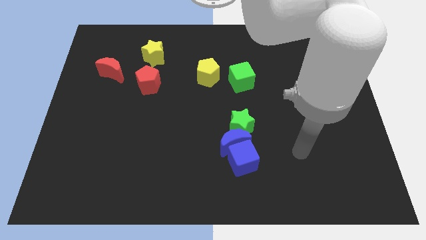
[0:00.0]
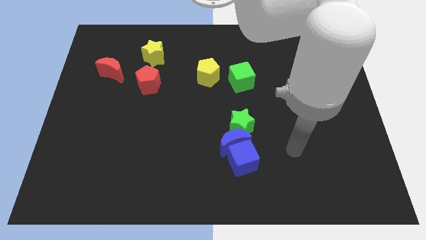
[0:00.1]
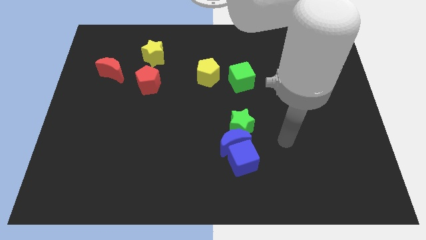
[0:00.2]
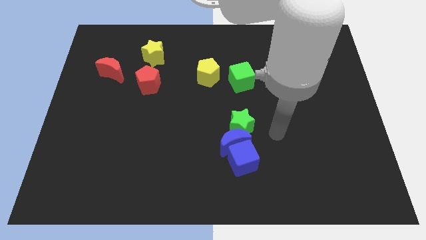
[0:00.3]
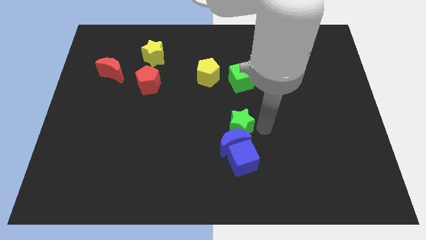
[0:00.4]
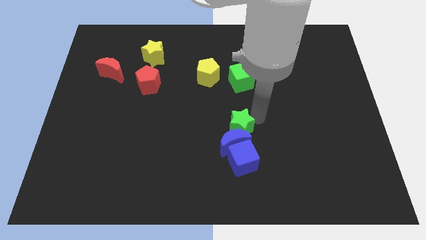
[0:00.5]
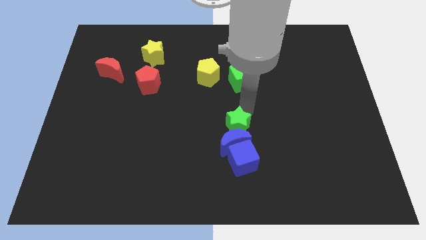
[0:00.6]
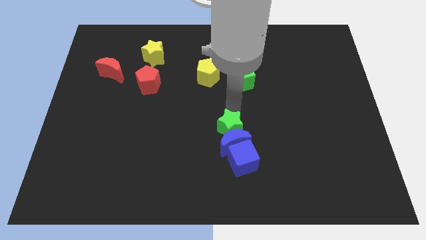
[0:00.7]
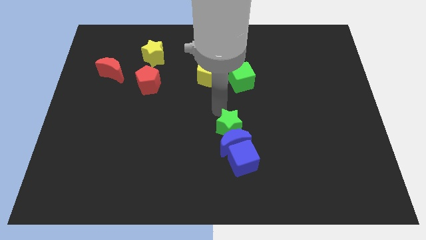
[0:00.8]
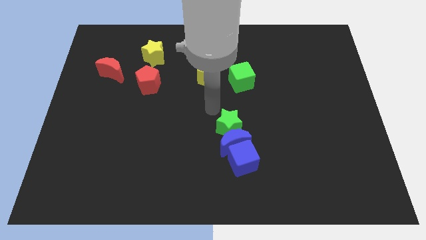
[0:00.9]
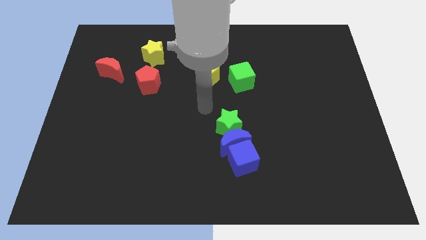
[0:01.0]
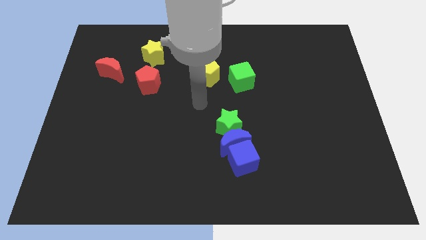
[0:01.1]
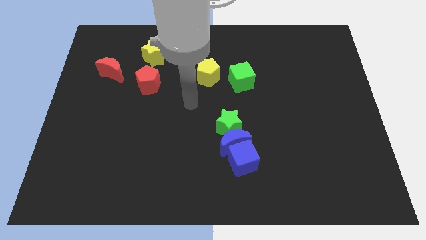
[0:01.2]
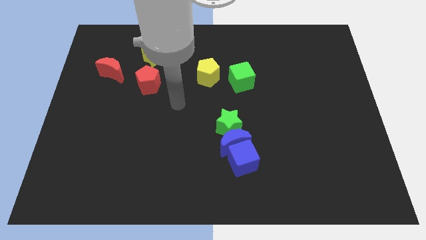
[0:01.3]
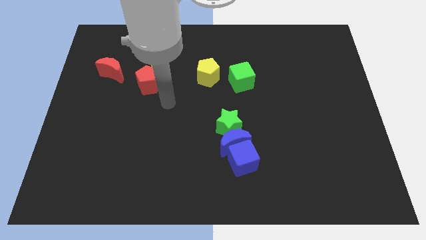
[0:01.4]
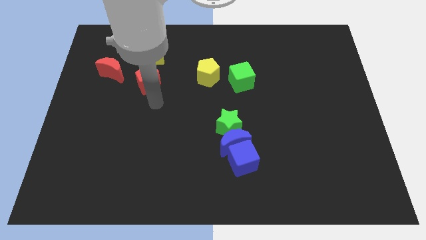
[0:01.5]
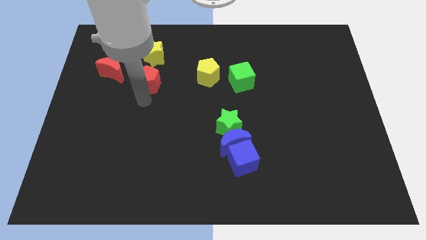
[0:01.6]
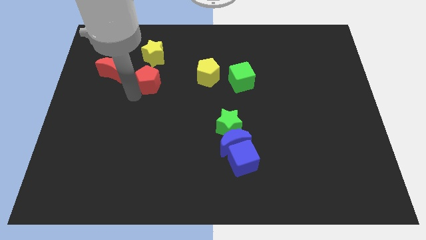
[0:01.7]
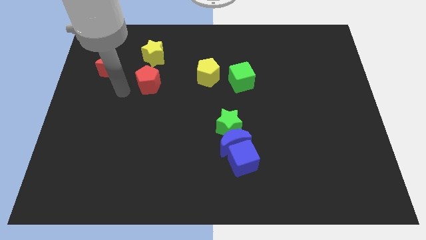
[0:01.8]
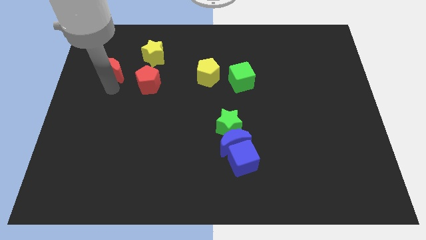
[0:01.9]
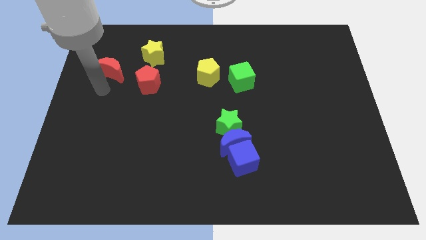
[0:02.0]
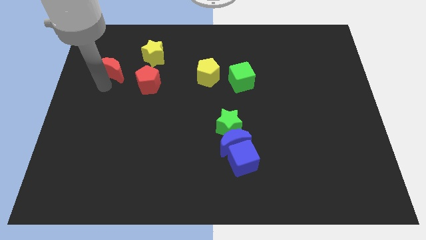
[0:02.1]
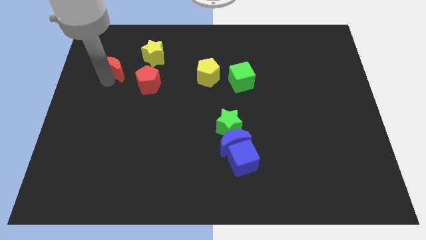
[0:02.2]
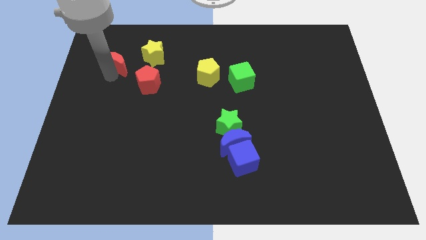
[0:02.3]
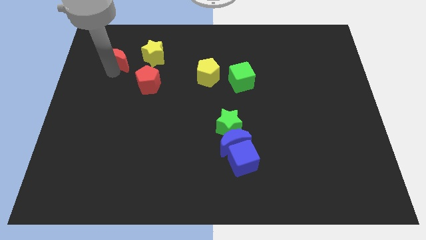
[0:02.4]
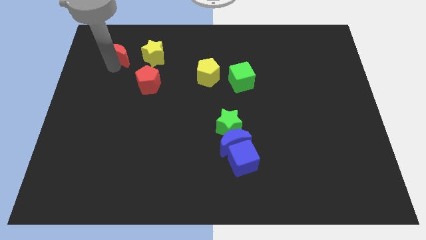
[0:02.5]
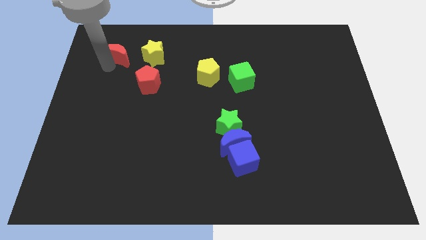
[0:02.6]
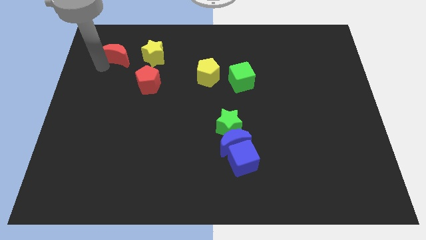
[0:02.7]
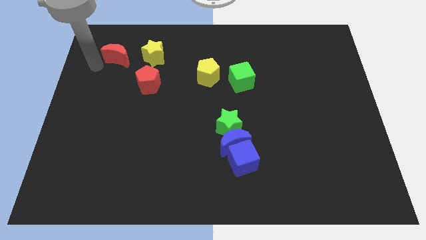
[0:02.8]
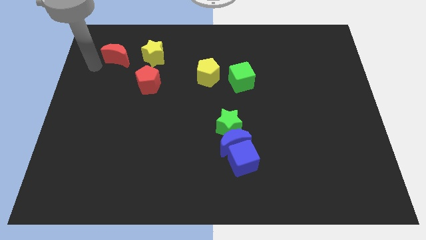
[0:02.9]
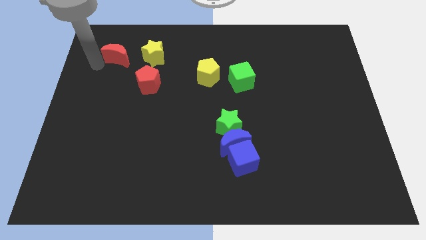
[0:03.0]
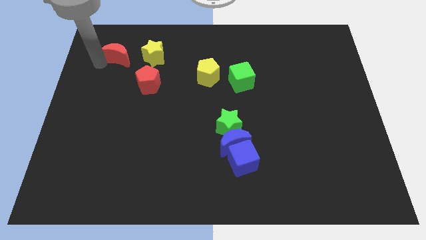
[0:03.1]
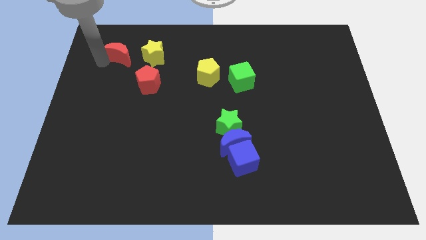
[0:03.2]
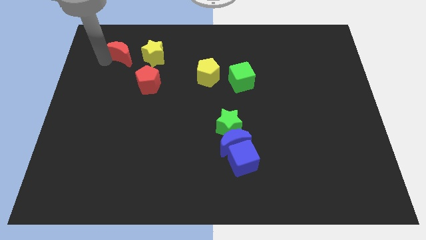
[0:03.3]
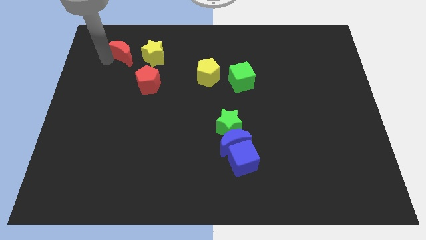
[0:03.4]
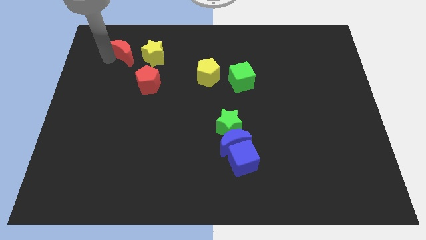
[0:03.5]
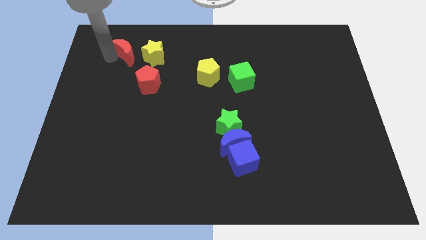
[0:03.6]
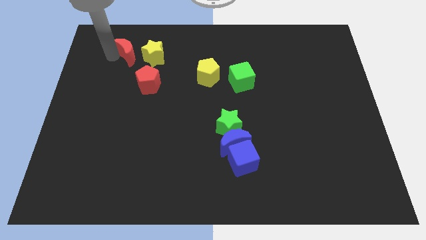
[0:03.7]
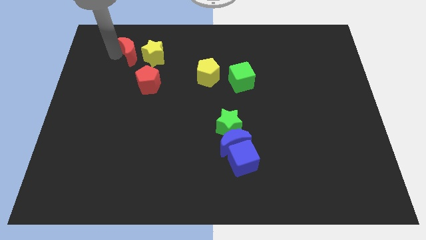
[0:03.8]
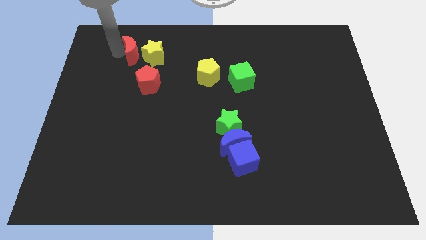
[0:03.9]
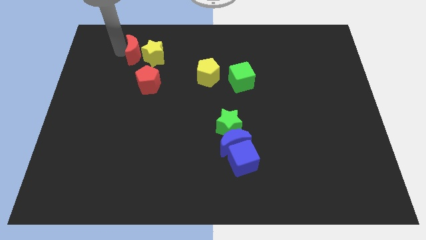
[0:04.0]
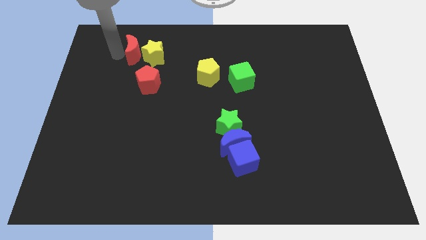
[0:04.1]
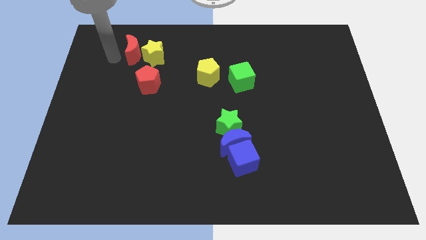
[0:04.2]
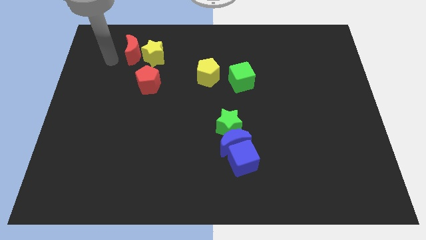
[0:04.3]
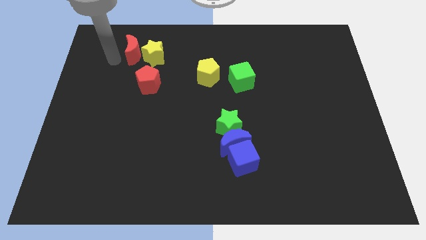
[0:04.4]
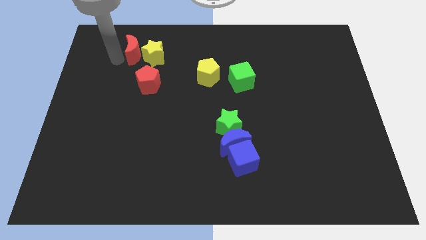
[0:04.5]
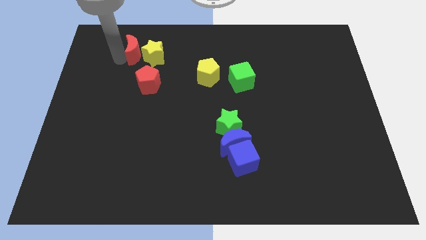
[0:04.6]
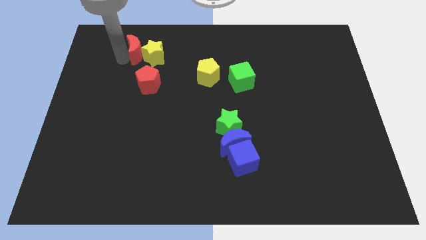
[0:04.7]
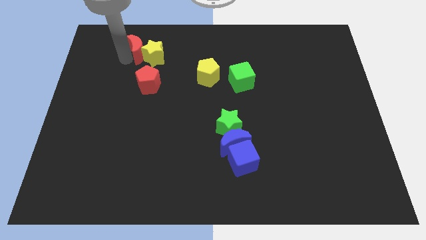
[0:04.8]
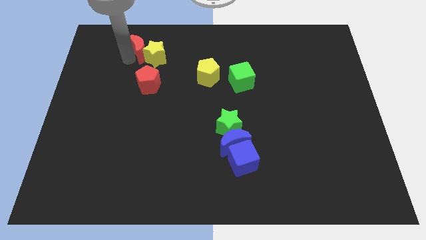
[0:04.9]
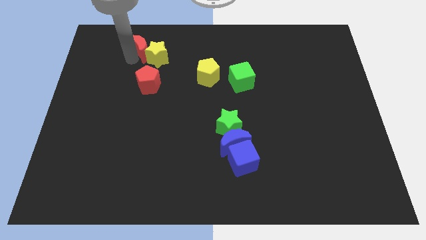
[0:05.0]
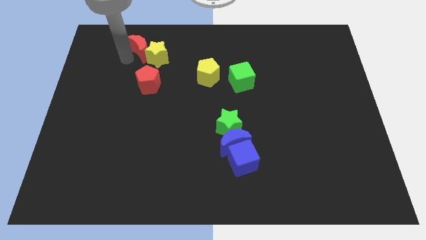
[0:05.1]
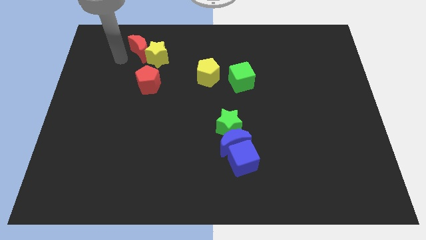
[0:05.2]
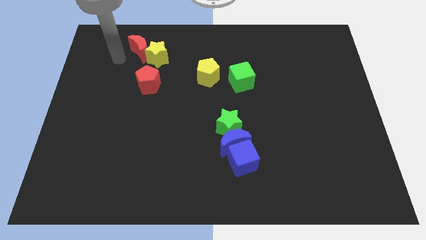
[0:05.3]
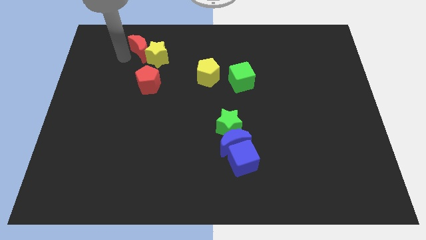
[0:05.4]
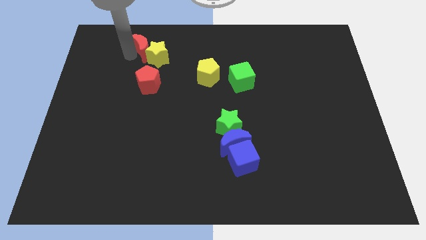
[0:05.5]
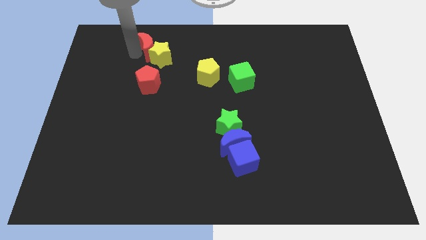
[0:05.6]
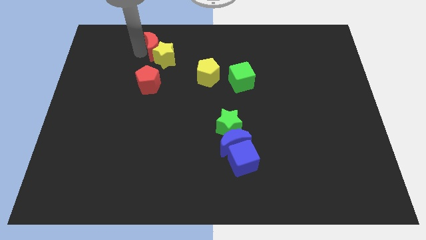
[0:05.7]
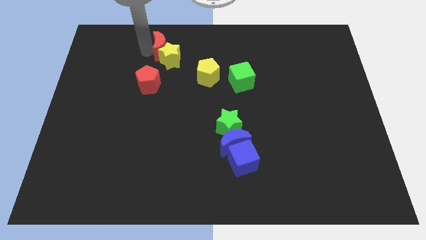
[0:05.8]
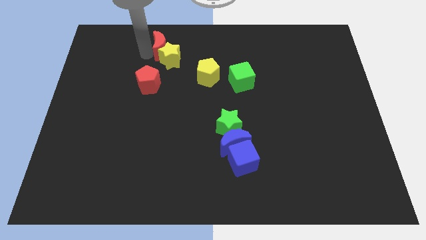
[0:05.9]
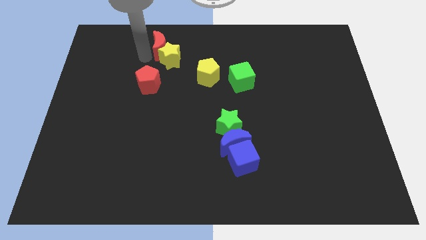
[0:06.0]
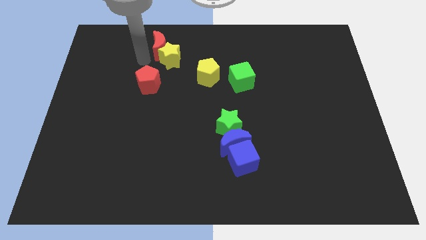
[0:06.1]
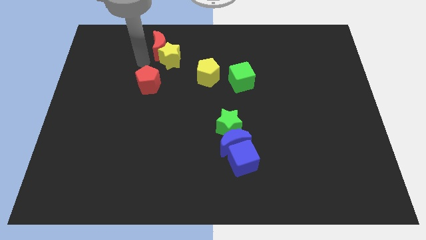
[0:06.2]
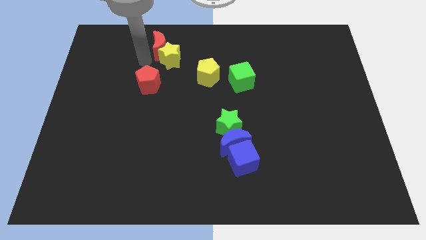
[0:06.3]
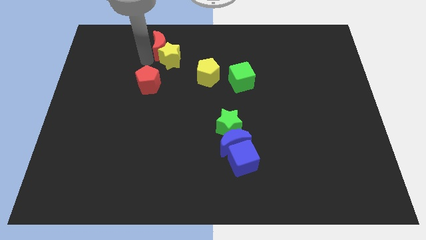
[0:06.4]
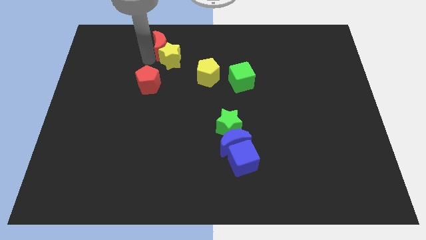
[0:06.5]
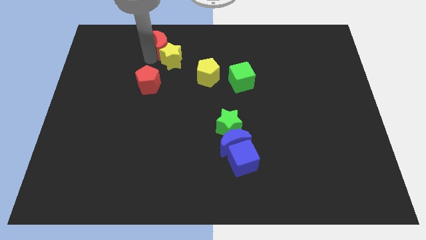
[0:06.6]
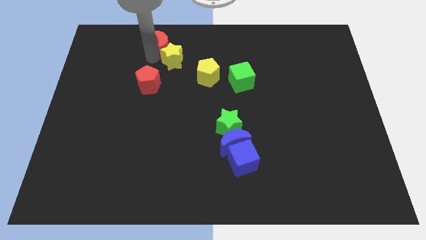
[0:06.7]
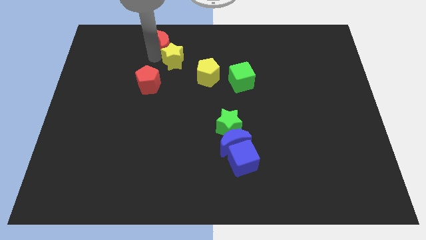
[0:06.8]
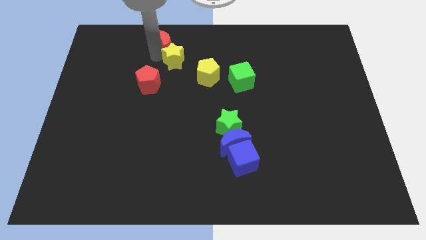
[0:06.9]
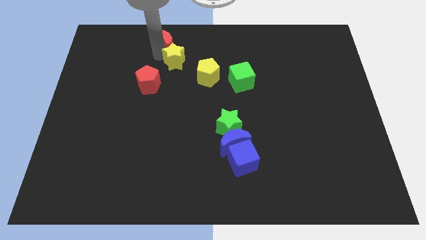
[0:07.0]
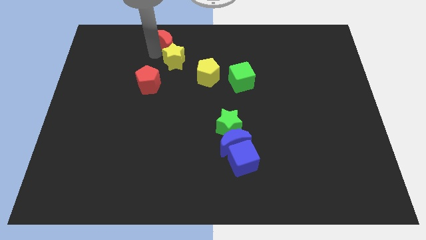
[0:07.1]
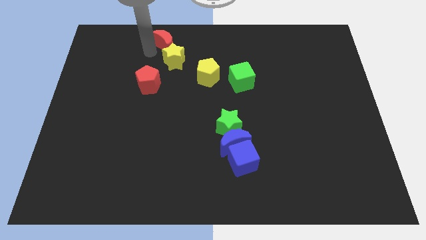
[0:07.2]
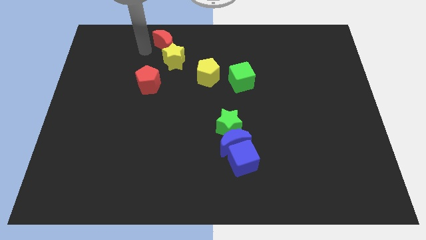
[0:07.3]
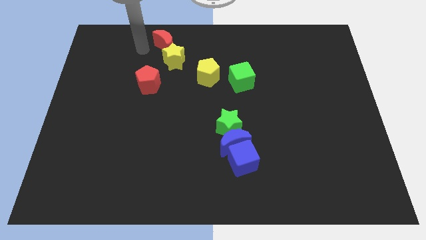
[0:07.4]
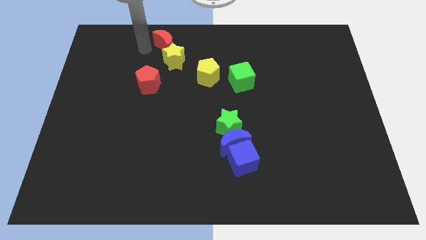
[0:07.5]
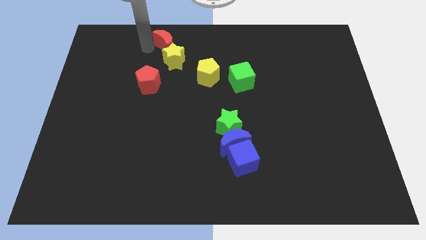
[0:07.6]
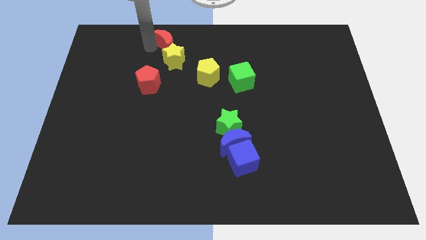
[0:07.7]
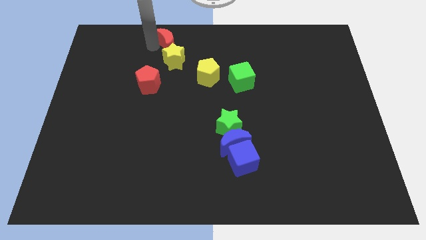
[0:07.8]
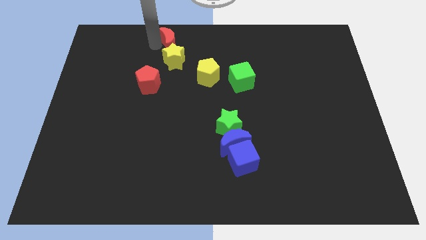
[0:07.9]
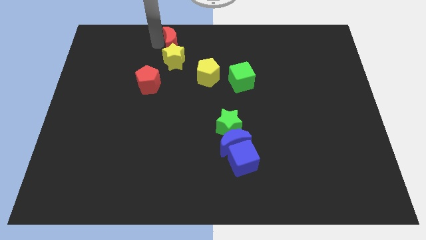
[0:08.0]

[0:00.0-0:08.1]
push the red moon to the top side
